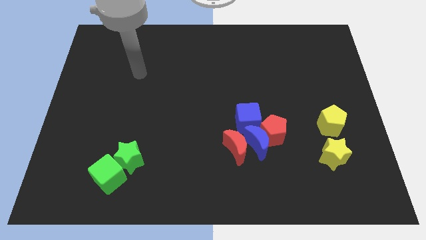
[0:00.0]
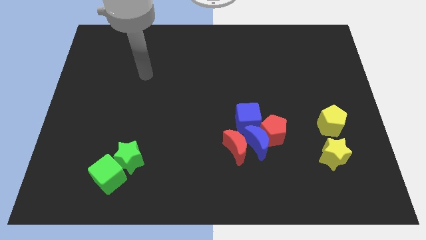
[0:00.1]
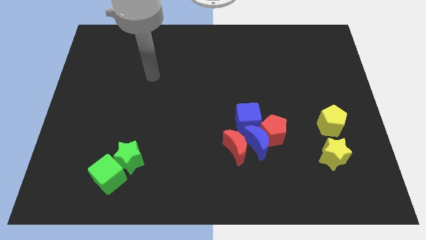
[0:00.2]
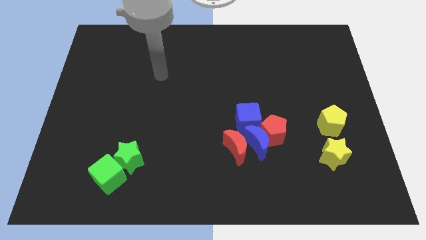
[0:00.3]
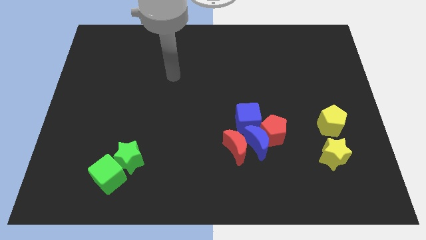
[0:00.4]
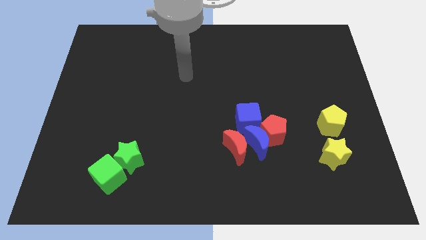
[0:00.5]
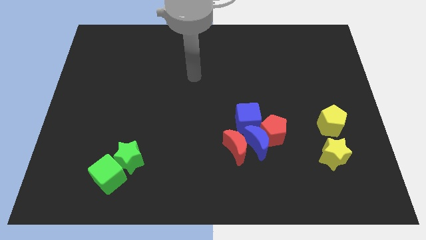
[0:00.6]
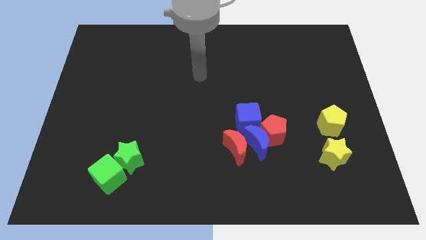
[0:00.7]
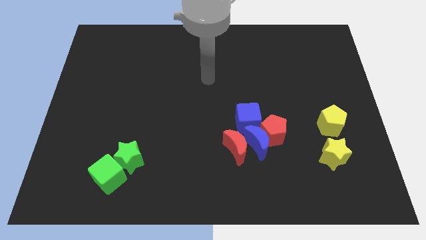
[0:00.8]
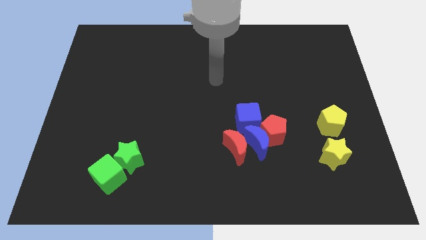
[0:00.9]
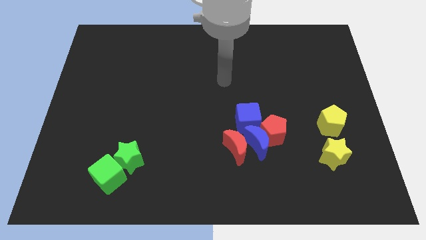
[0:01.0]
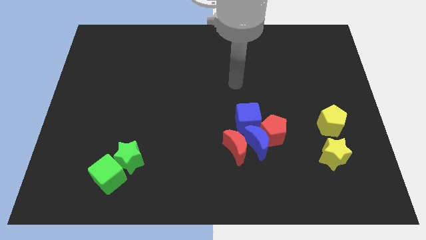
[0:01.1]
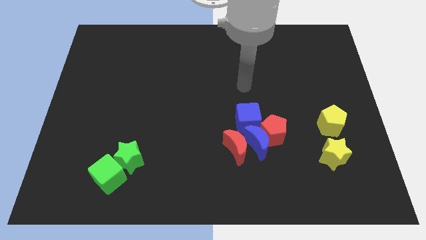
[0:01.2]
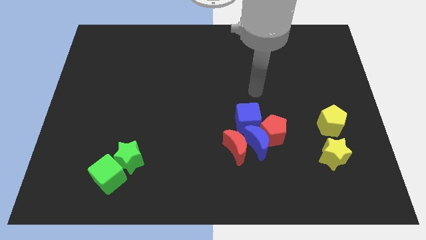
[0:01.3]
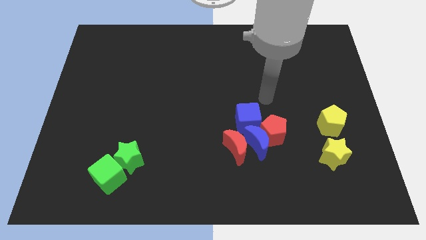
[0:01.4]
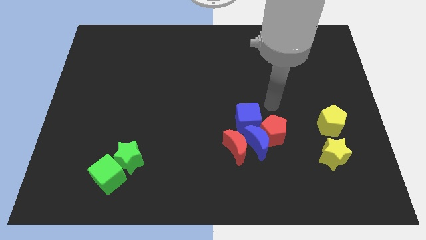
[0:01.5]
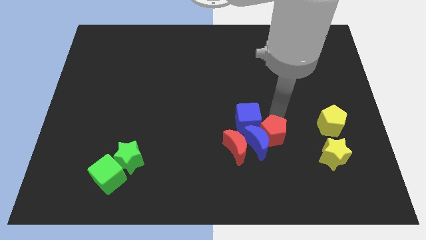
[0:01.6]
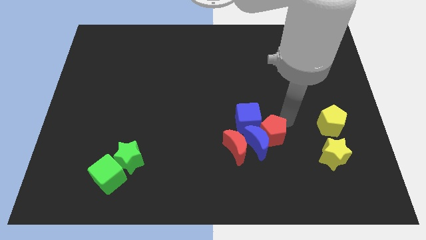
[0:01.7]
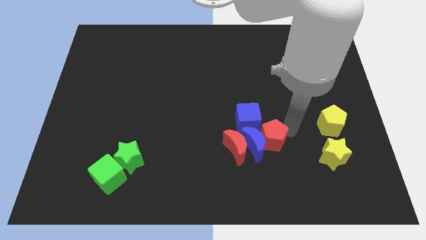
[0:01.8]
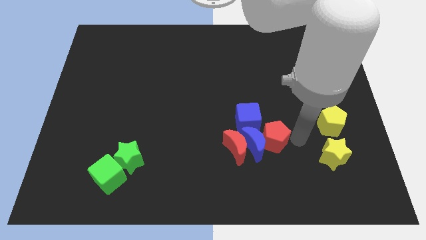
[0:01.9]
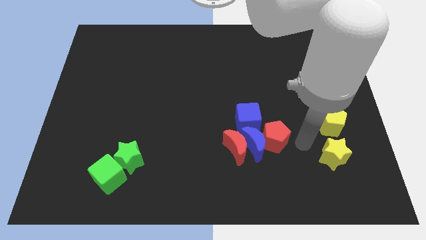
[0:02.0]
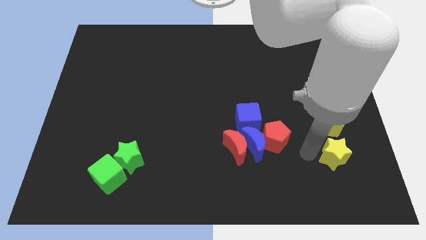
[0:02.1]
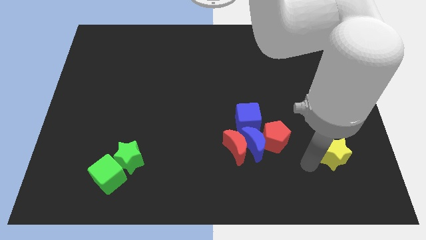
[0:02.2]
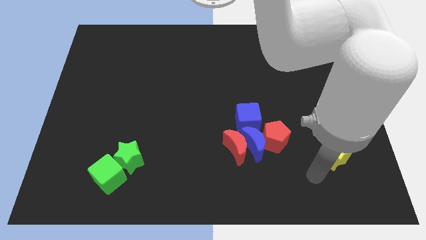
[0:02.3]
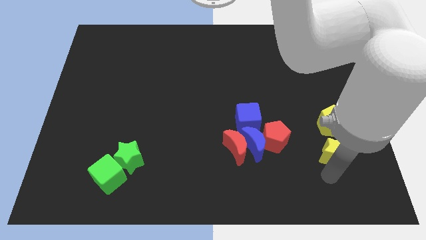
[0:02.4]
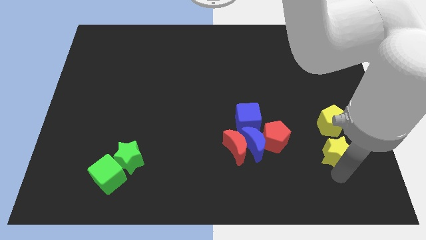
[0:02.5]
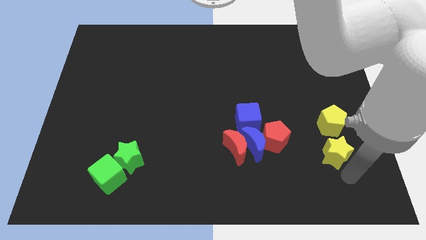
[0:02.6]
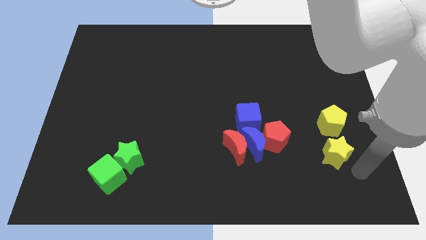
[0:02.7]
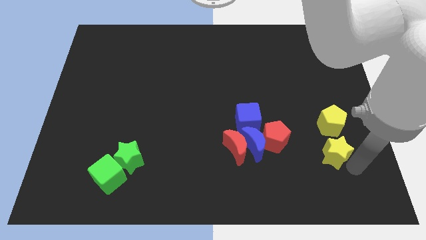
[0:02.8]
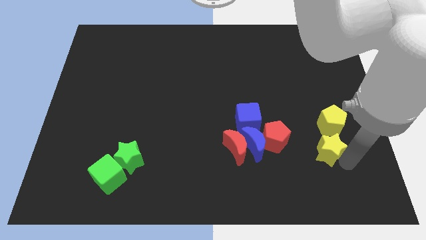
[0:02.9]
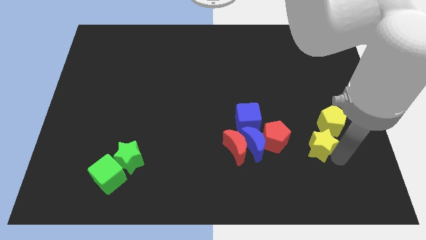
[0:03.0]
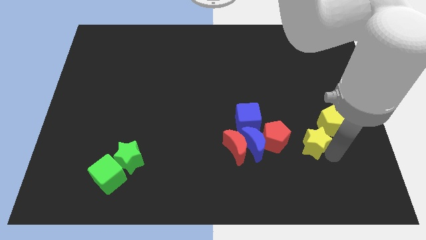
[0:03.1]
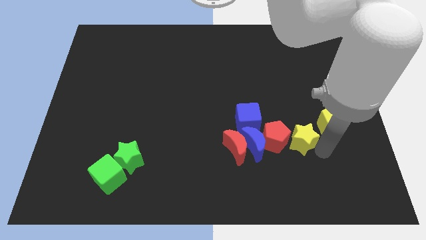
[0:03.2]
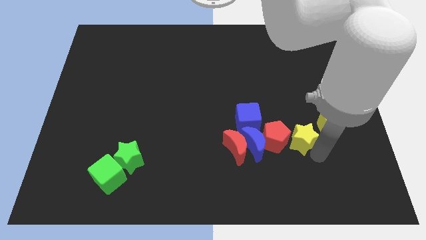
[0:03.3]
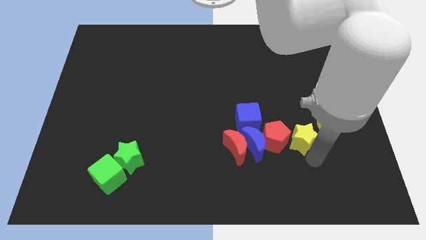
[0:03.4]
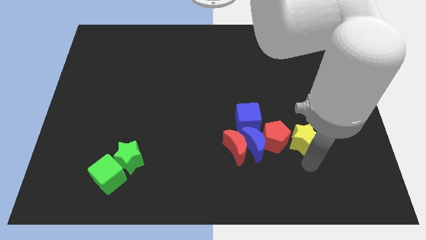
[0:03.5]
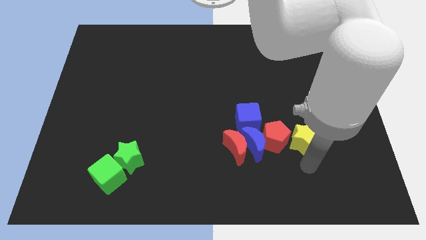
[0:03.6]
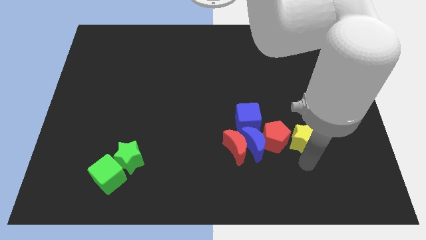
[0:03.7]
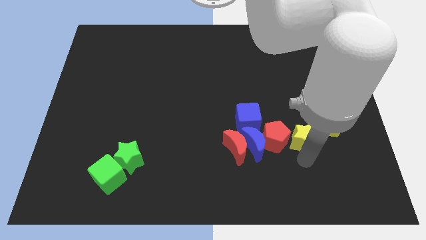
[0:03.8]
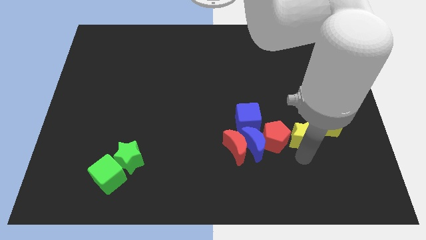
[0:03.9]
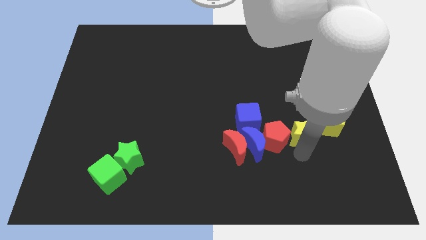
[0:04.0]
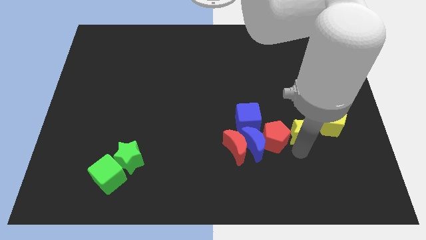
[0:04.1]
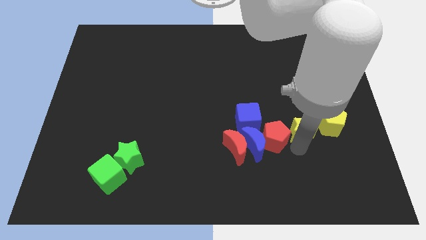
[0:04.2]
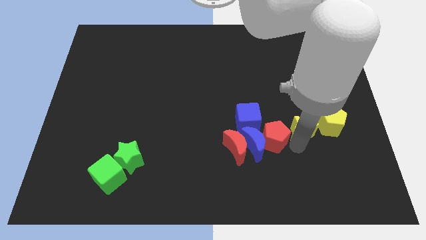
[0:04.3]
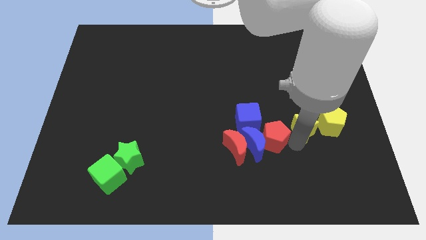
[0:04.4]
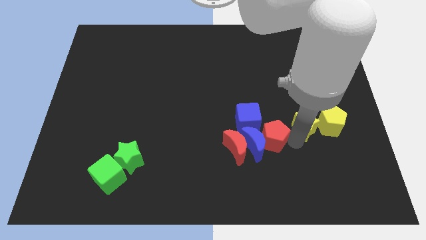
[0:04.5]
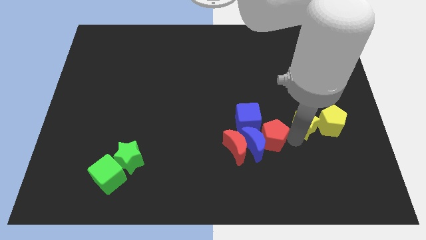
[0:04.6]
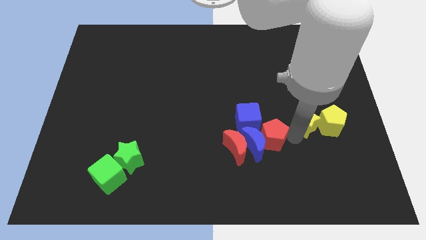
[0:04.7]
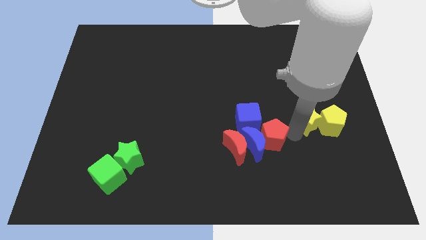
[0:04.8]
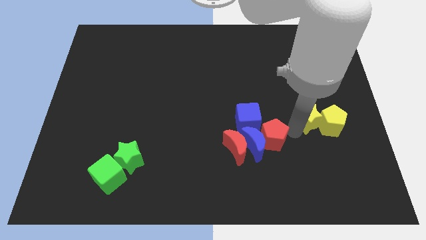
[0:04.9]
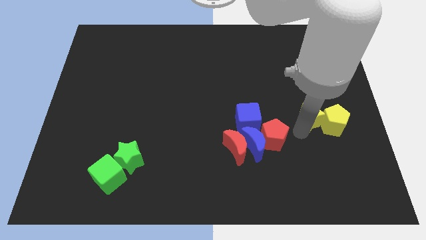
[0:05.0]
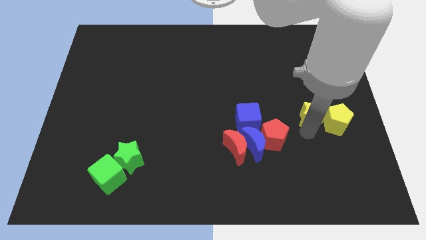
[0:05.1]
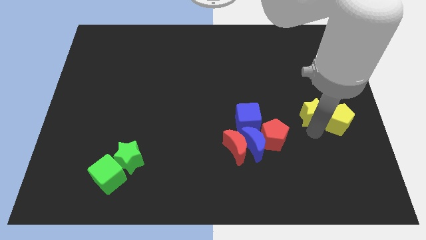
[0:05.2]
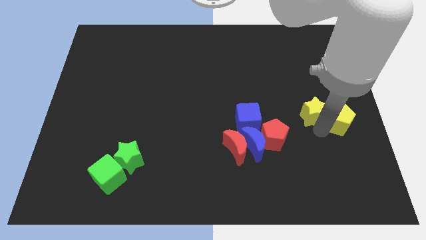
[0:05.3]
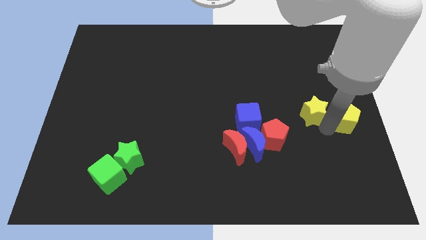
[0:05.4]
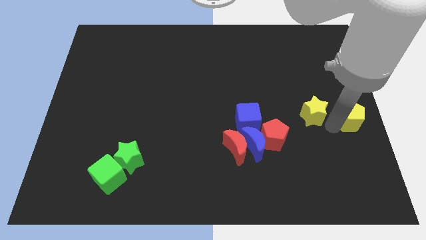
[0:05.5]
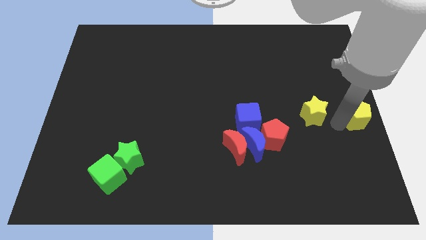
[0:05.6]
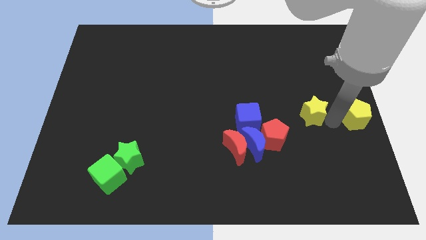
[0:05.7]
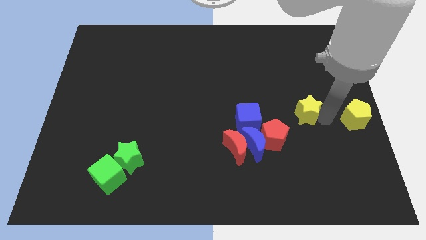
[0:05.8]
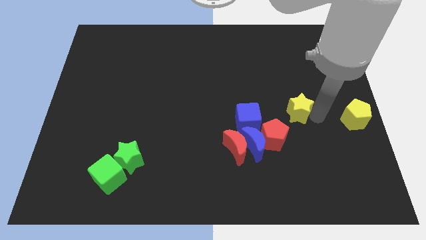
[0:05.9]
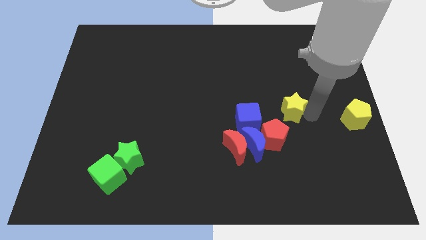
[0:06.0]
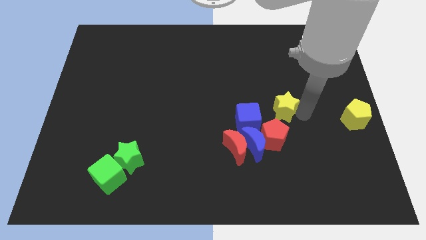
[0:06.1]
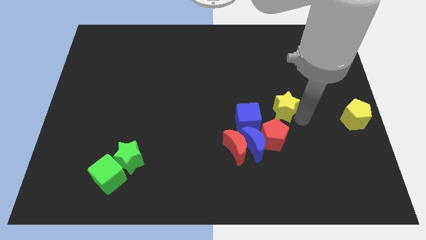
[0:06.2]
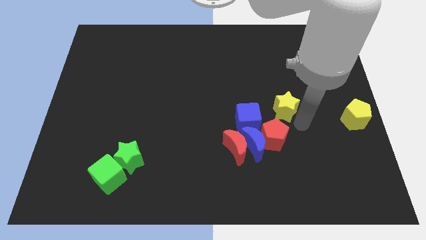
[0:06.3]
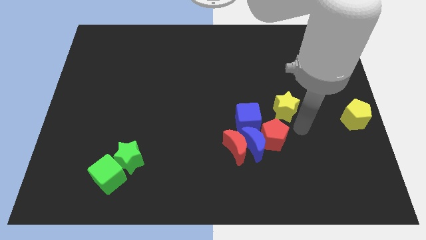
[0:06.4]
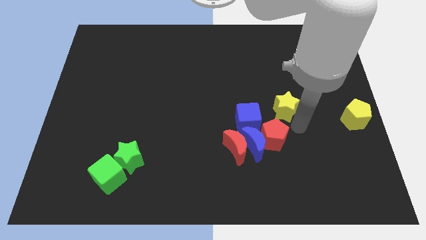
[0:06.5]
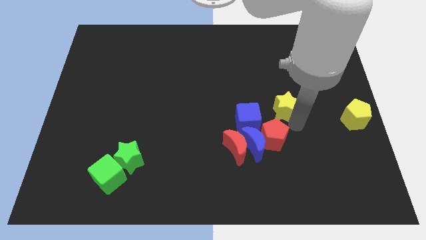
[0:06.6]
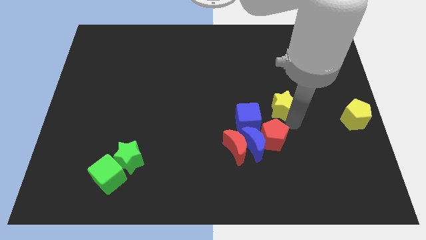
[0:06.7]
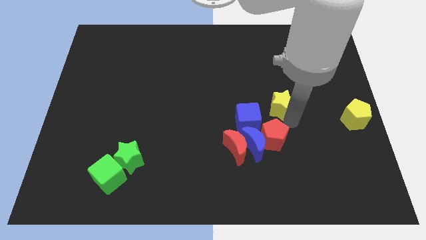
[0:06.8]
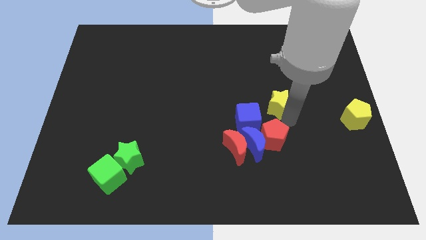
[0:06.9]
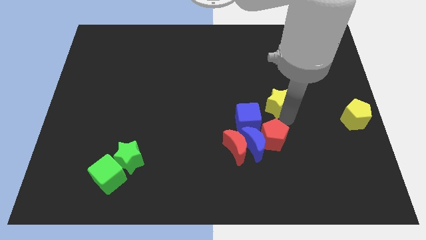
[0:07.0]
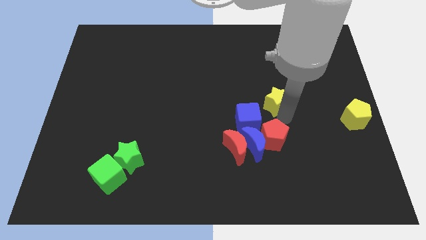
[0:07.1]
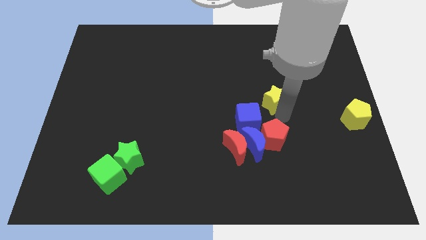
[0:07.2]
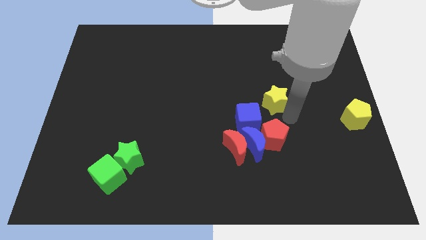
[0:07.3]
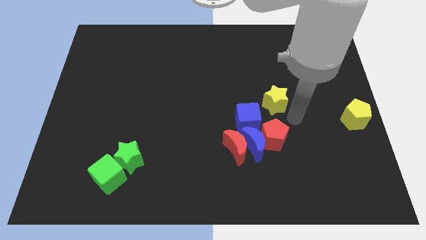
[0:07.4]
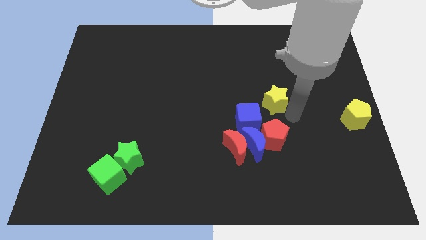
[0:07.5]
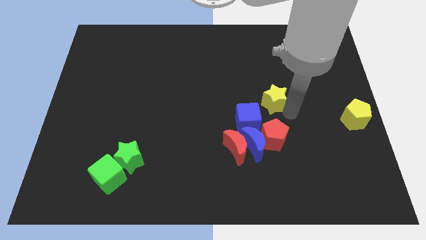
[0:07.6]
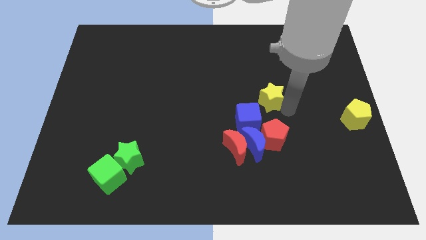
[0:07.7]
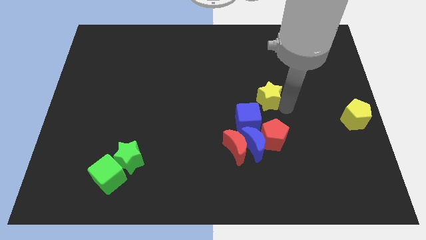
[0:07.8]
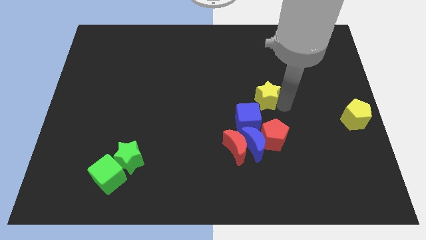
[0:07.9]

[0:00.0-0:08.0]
move the yellow star diagonally upwards and to the left
